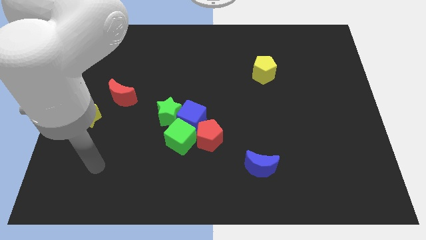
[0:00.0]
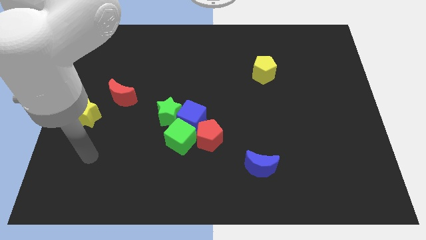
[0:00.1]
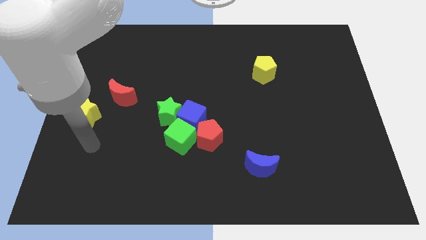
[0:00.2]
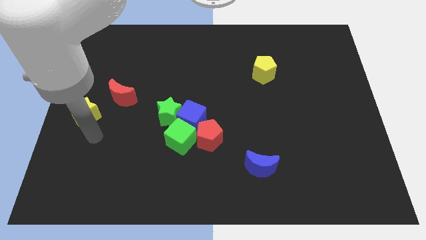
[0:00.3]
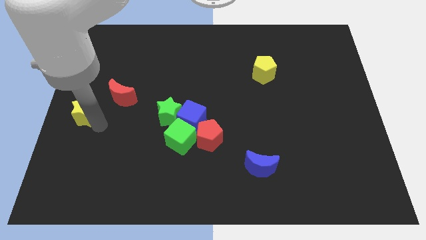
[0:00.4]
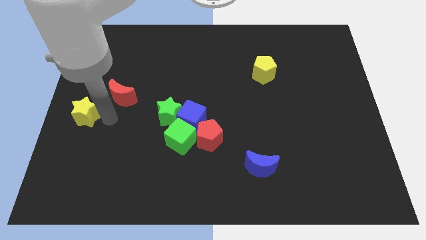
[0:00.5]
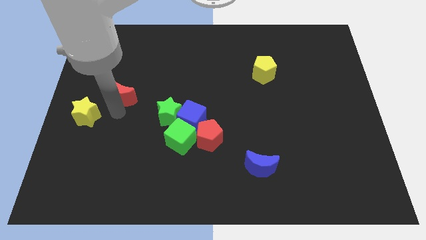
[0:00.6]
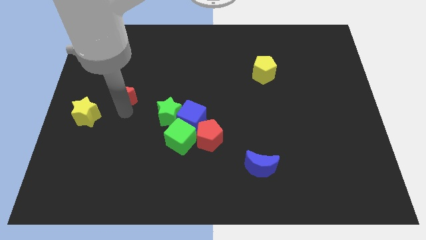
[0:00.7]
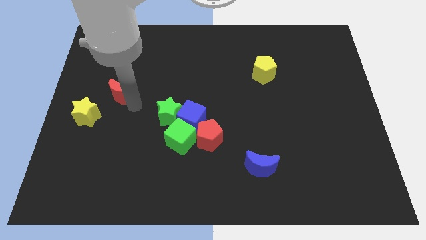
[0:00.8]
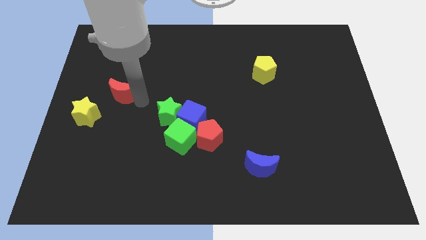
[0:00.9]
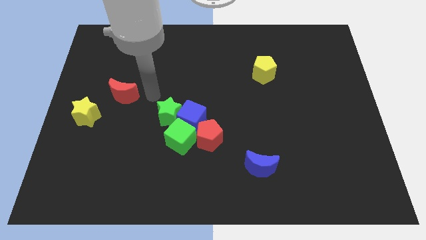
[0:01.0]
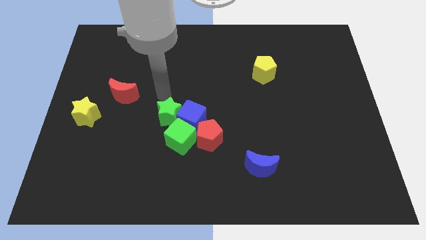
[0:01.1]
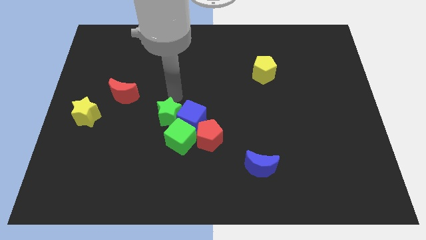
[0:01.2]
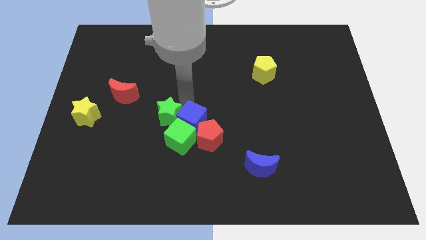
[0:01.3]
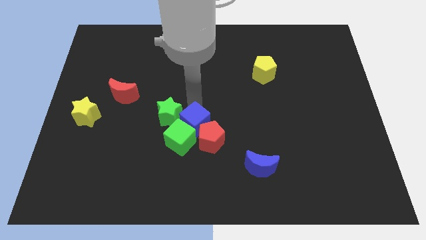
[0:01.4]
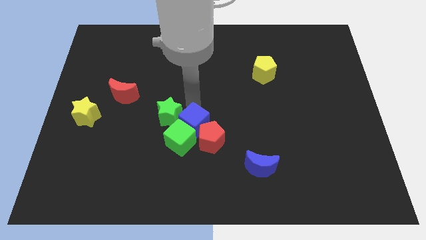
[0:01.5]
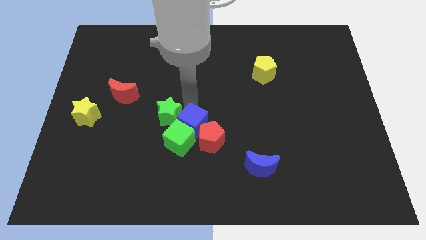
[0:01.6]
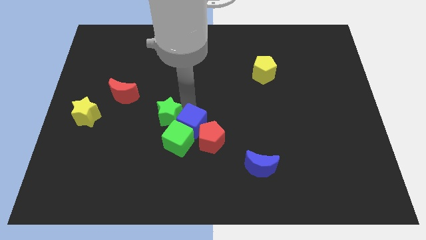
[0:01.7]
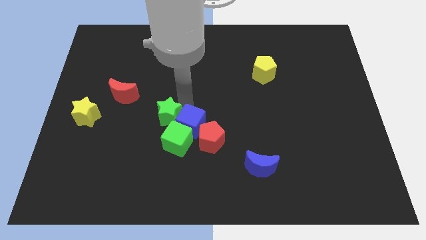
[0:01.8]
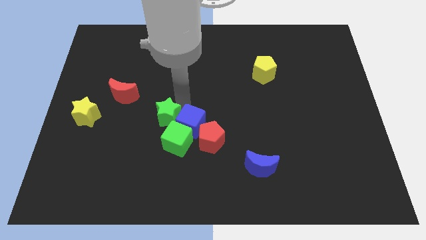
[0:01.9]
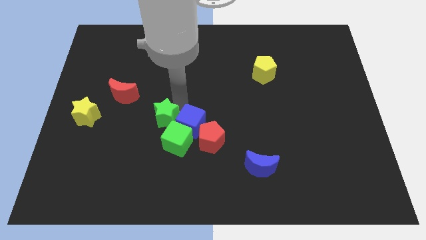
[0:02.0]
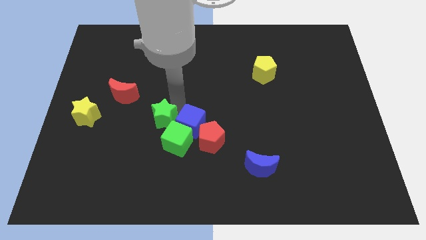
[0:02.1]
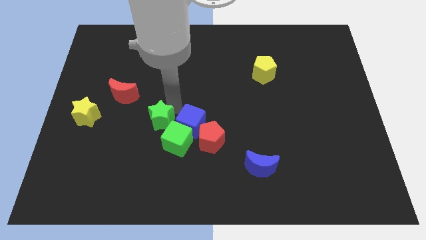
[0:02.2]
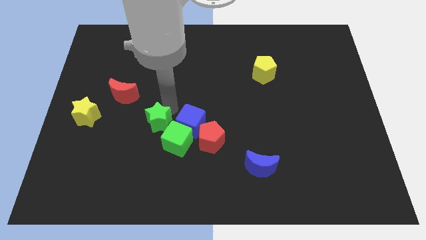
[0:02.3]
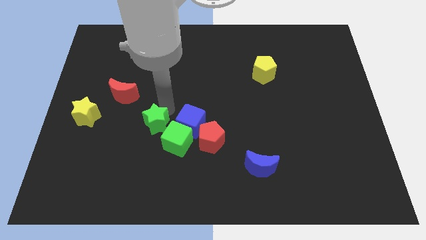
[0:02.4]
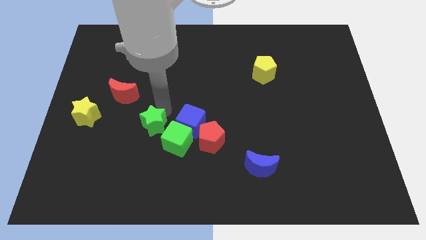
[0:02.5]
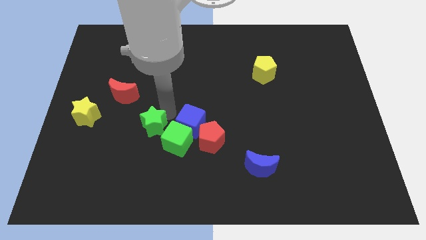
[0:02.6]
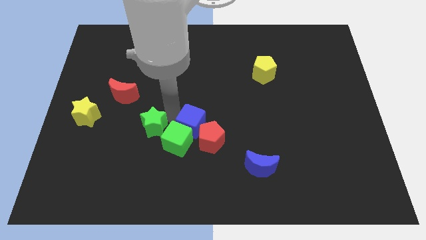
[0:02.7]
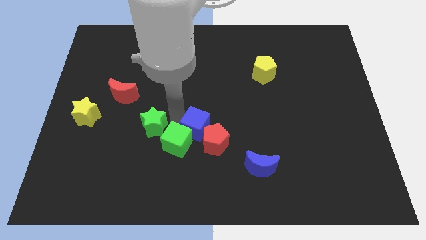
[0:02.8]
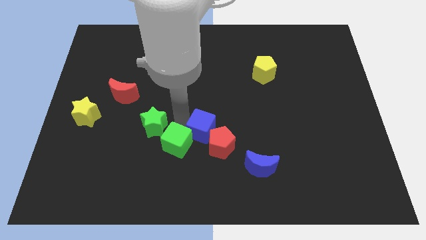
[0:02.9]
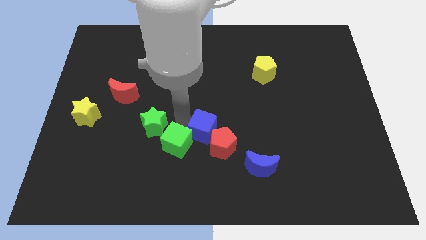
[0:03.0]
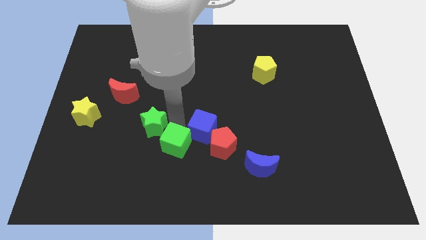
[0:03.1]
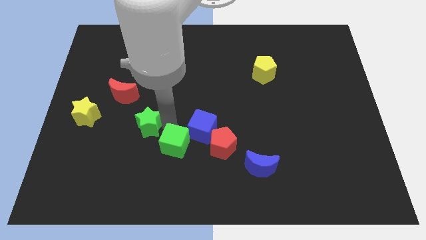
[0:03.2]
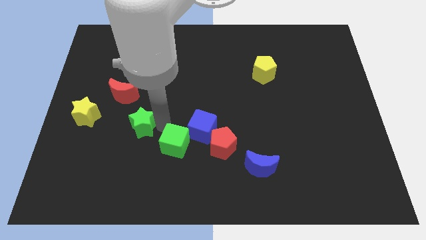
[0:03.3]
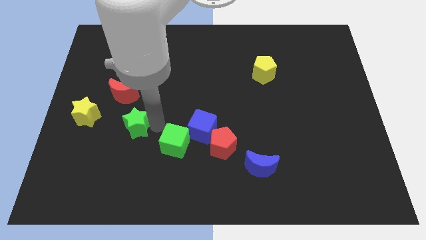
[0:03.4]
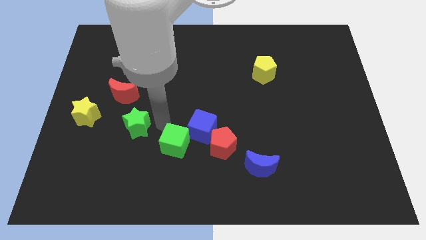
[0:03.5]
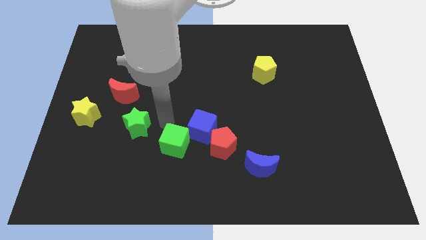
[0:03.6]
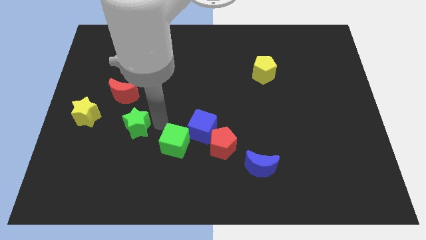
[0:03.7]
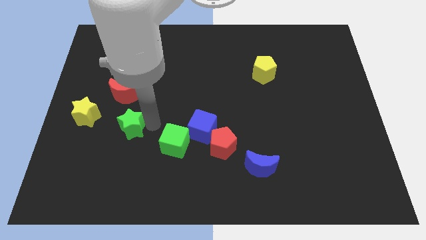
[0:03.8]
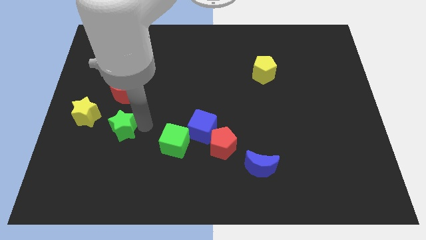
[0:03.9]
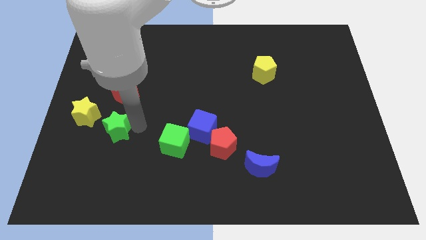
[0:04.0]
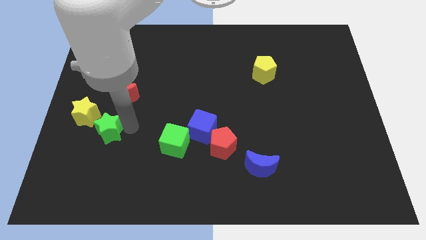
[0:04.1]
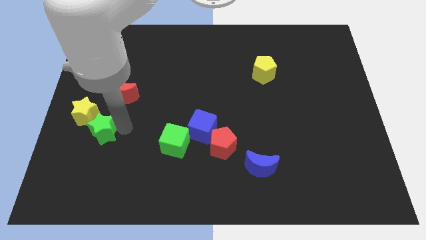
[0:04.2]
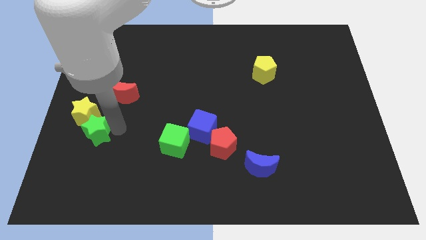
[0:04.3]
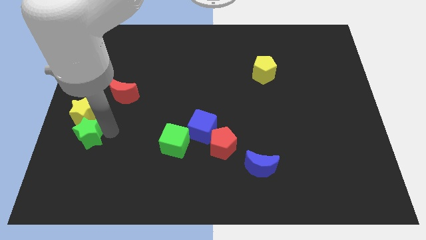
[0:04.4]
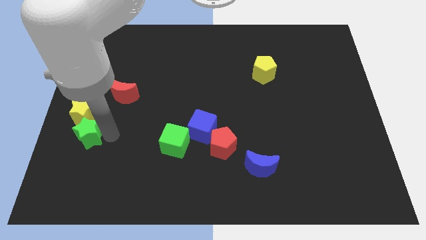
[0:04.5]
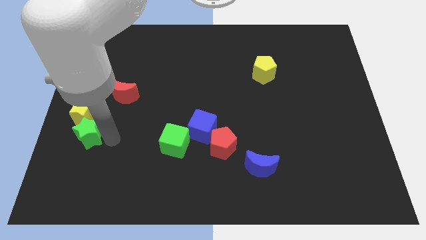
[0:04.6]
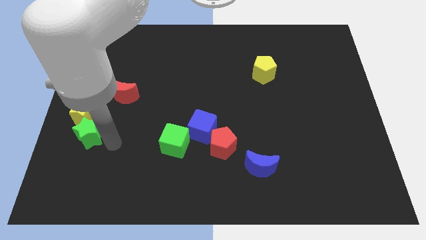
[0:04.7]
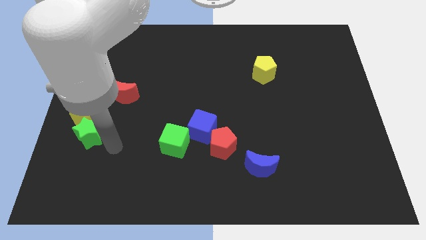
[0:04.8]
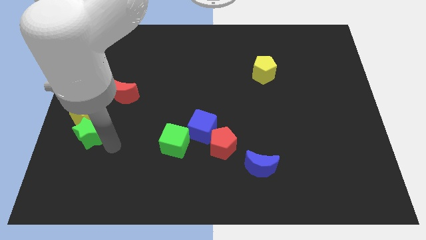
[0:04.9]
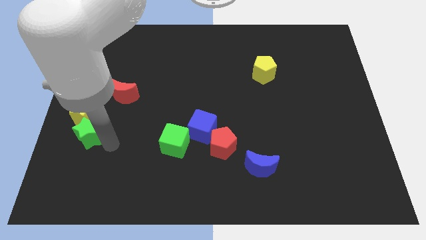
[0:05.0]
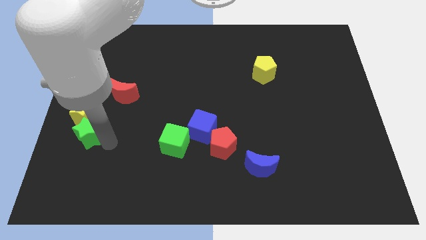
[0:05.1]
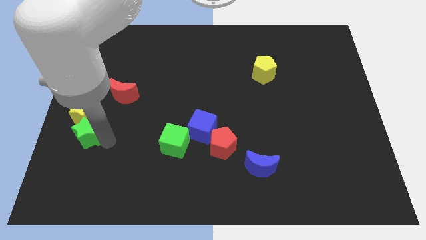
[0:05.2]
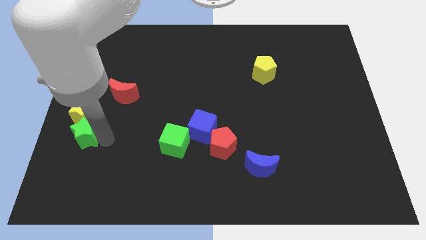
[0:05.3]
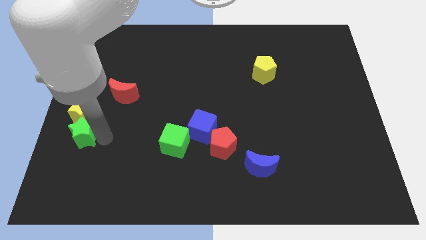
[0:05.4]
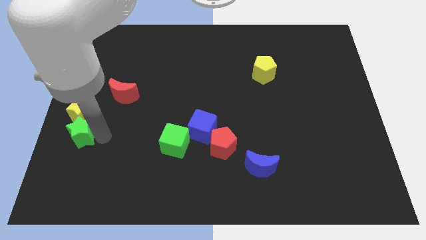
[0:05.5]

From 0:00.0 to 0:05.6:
push the green star to the left side

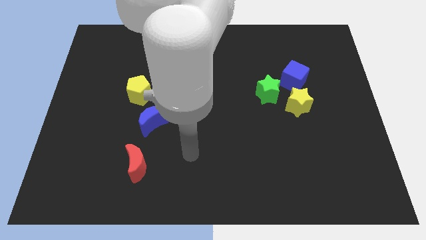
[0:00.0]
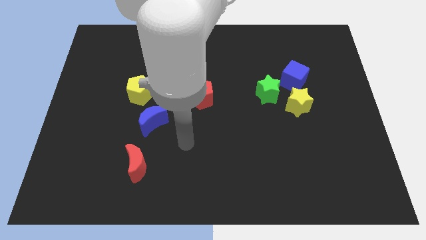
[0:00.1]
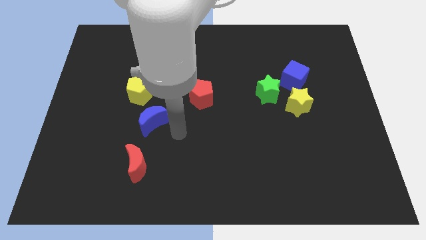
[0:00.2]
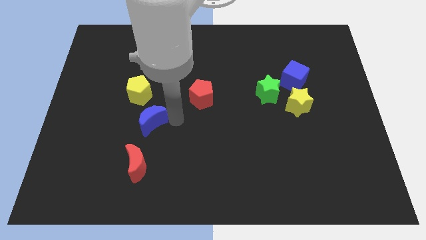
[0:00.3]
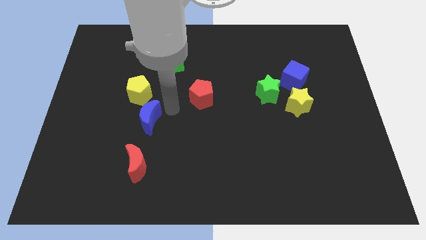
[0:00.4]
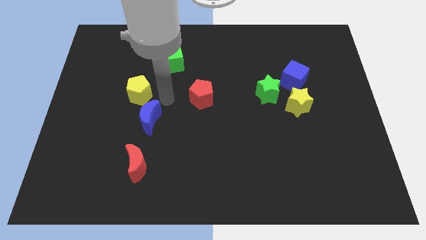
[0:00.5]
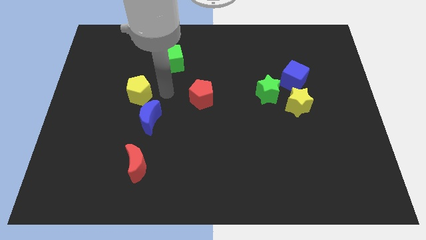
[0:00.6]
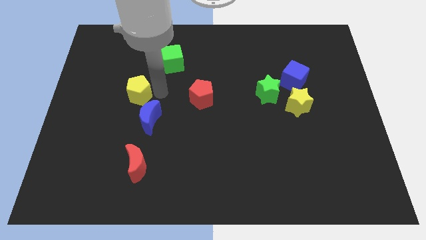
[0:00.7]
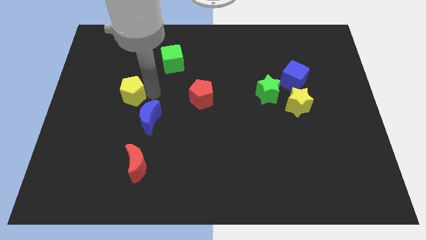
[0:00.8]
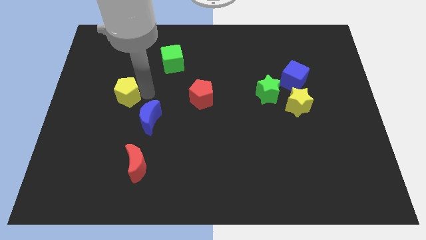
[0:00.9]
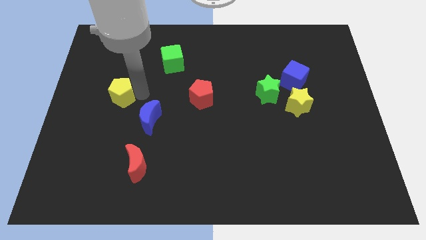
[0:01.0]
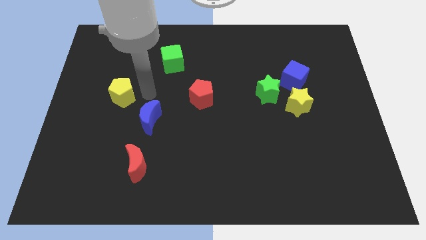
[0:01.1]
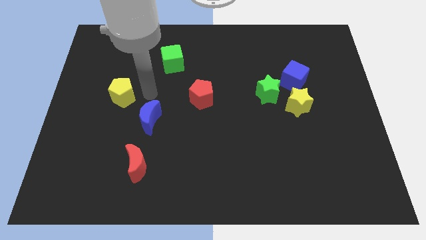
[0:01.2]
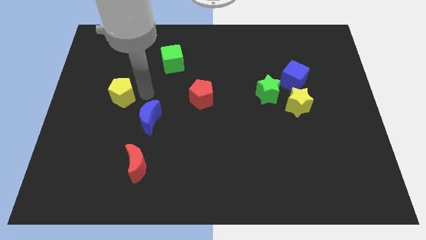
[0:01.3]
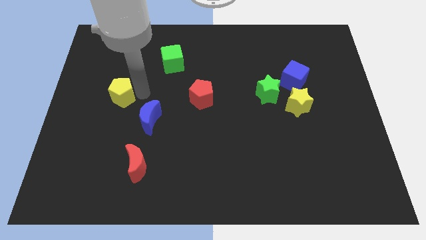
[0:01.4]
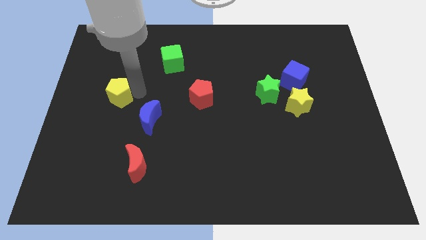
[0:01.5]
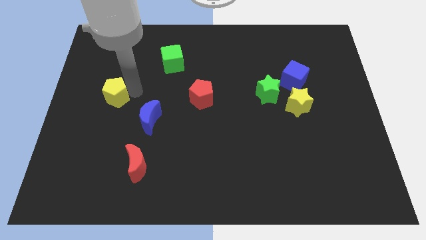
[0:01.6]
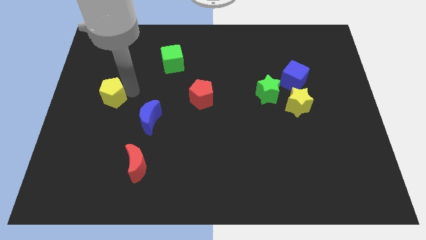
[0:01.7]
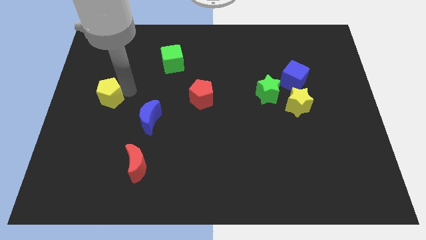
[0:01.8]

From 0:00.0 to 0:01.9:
push the yellow pentagon to the left side of the board
